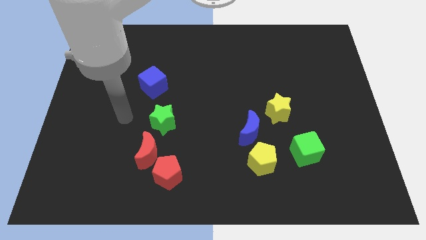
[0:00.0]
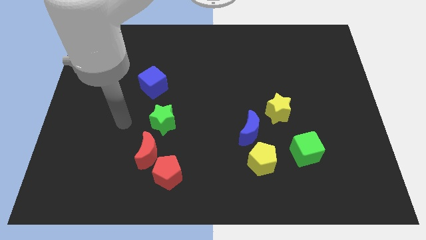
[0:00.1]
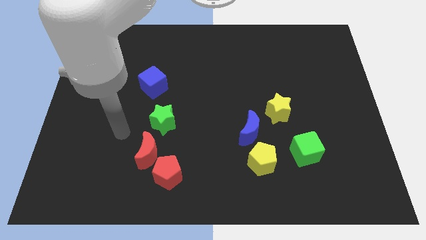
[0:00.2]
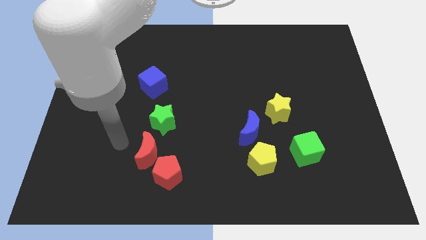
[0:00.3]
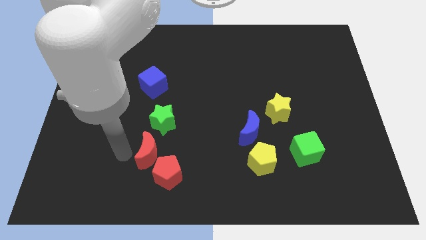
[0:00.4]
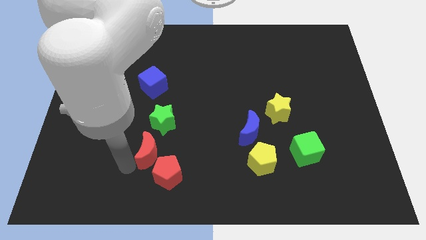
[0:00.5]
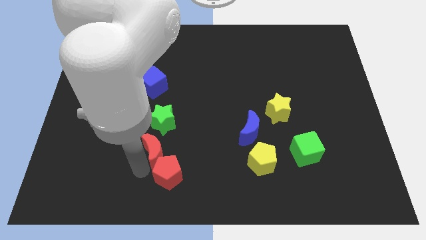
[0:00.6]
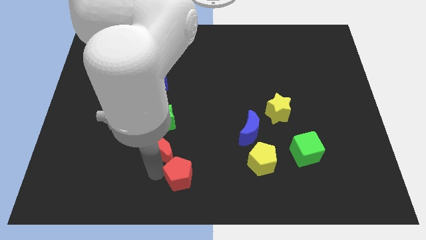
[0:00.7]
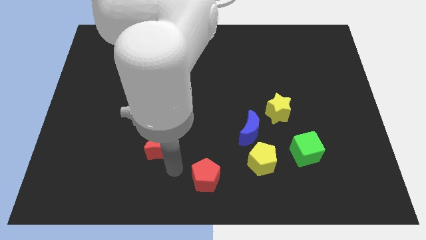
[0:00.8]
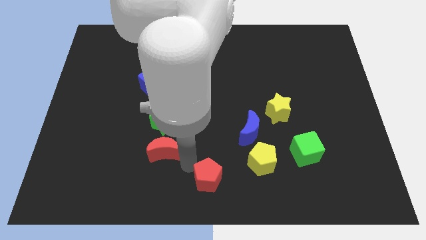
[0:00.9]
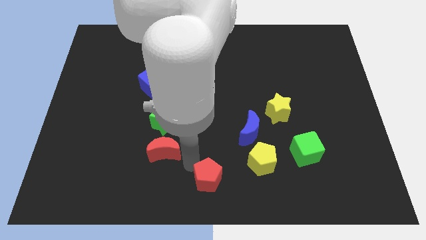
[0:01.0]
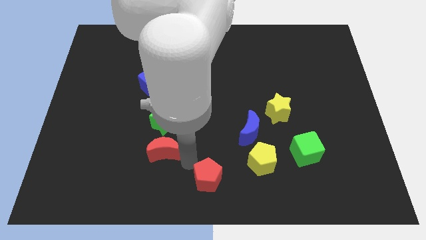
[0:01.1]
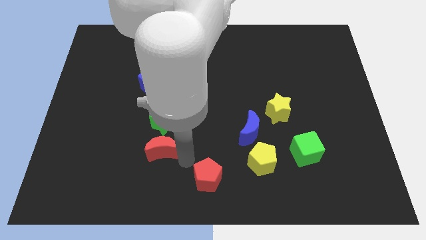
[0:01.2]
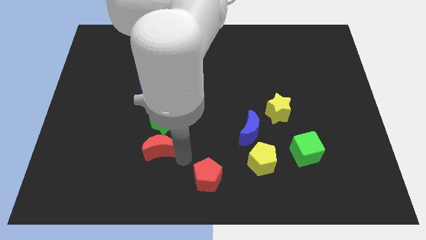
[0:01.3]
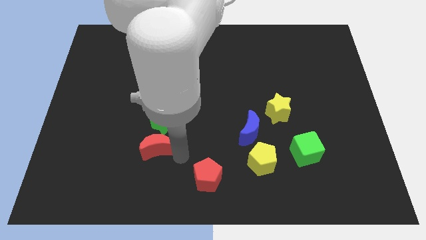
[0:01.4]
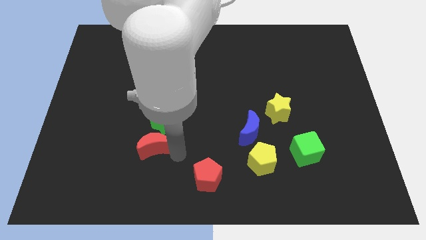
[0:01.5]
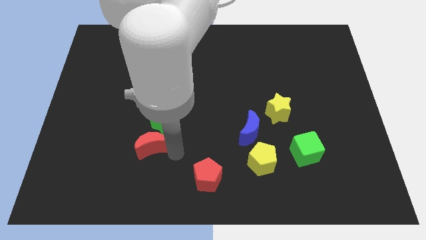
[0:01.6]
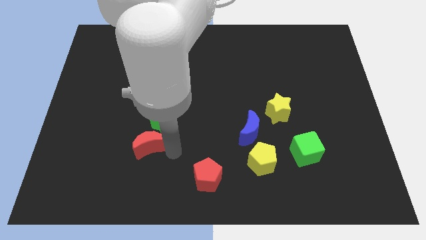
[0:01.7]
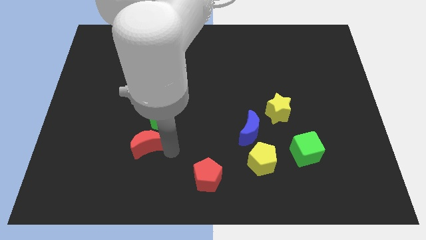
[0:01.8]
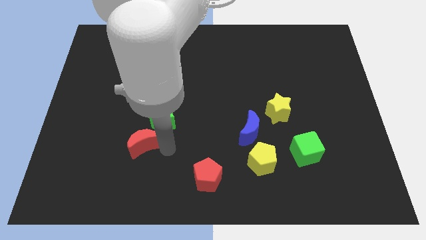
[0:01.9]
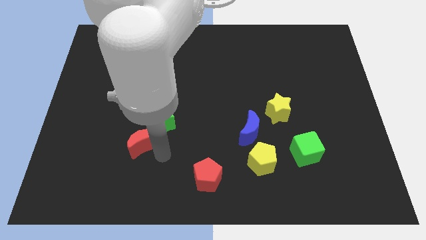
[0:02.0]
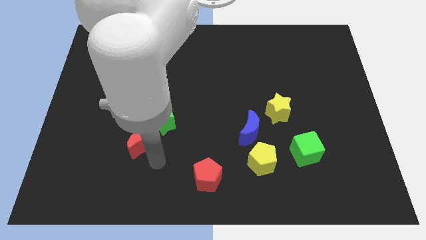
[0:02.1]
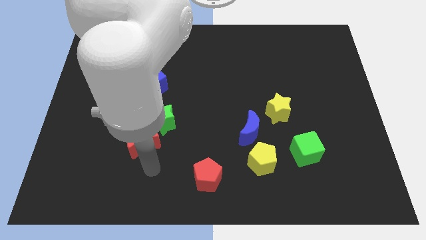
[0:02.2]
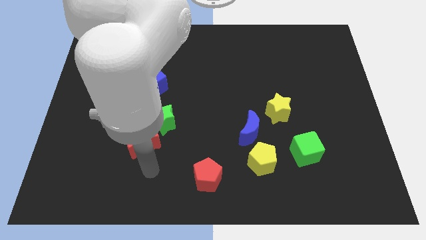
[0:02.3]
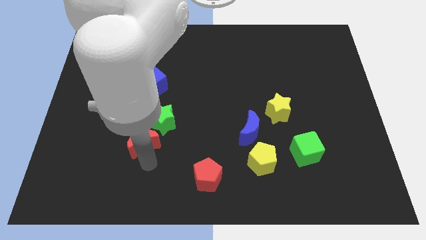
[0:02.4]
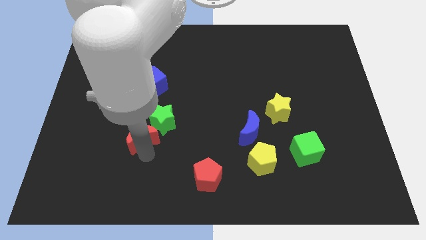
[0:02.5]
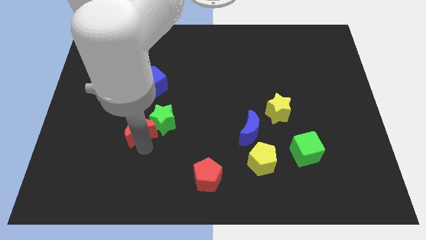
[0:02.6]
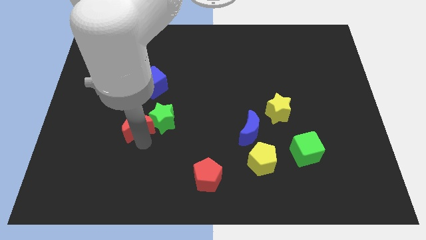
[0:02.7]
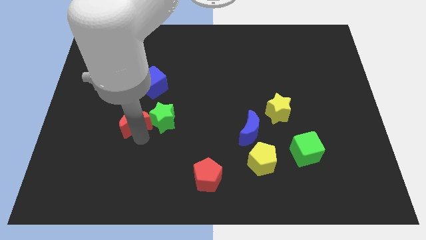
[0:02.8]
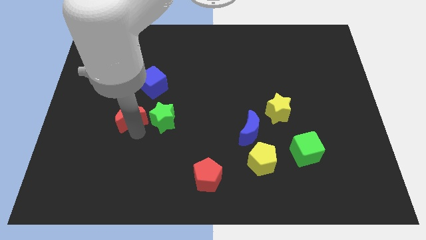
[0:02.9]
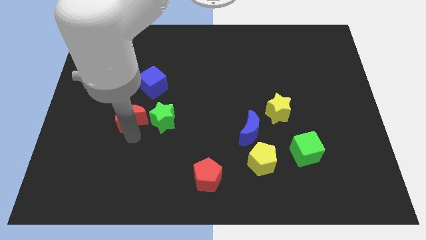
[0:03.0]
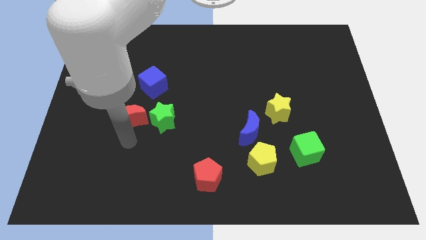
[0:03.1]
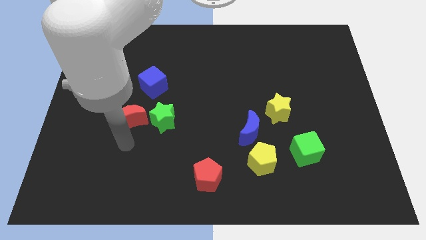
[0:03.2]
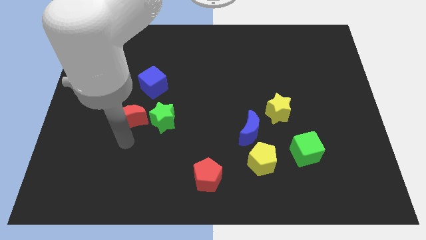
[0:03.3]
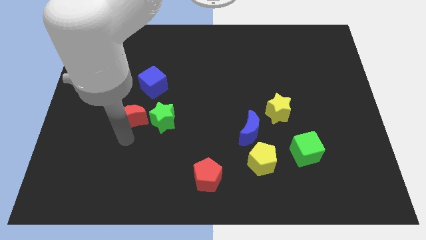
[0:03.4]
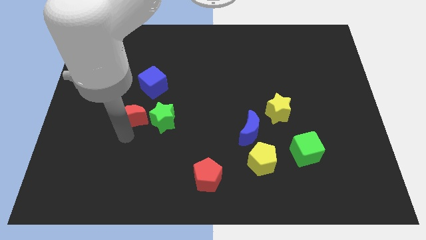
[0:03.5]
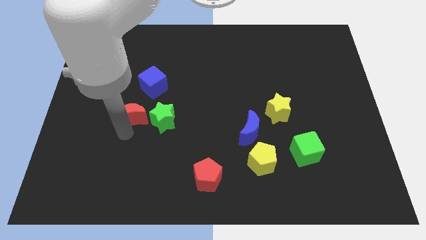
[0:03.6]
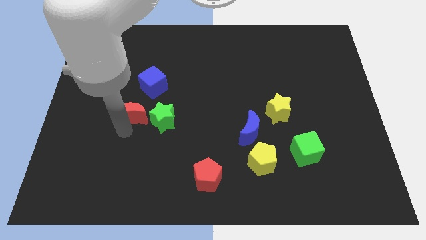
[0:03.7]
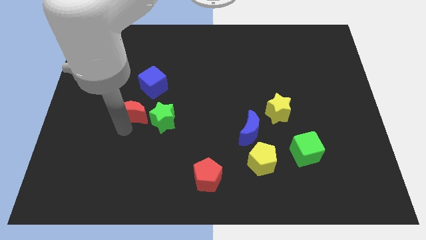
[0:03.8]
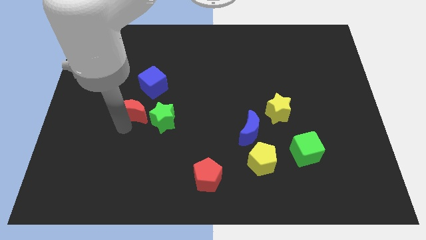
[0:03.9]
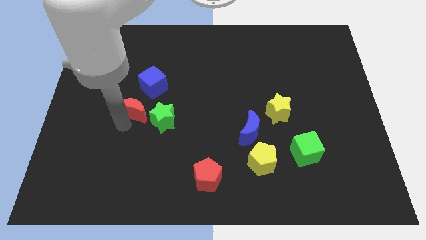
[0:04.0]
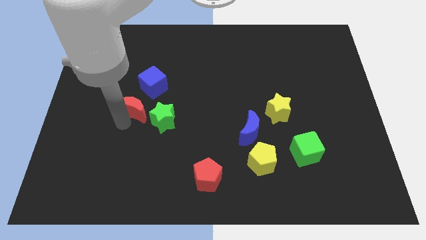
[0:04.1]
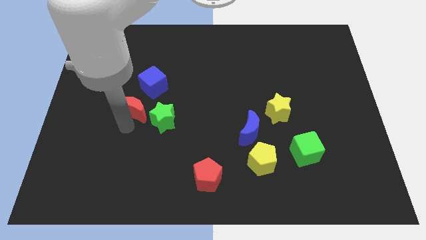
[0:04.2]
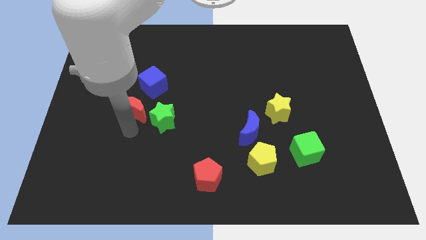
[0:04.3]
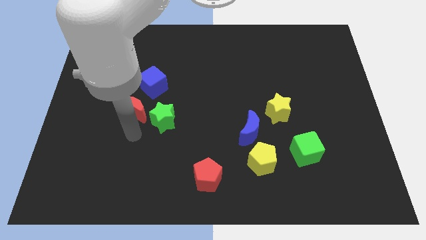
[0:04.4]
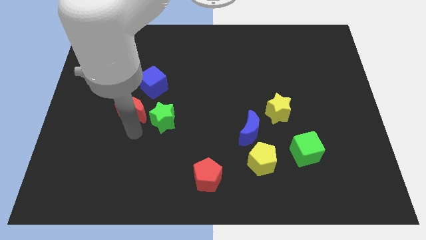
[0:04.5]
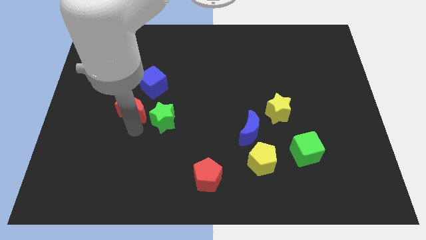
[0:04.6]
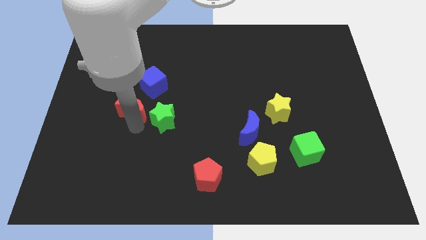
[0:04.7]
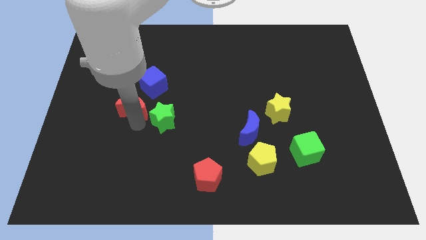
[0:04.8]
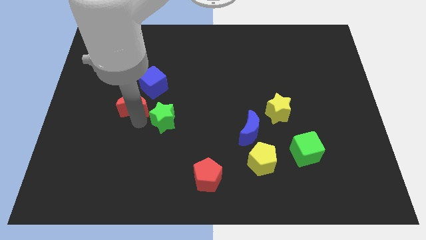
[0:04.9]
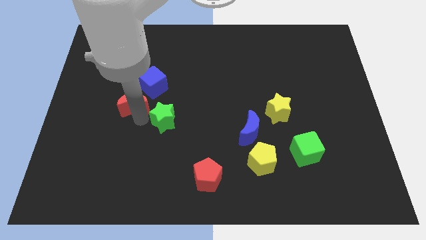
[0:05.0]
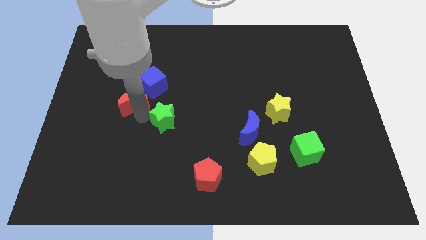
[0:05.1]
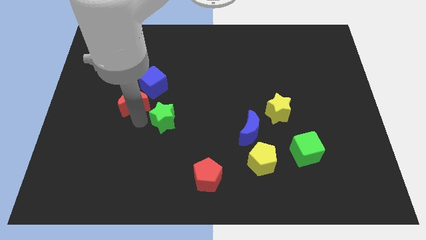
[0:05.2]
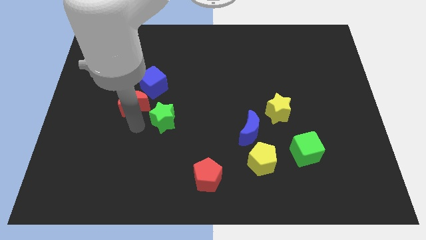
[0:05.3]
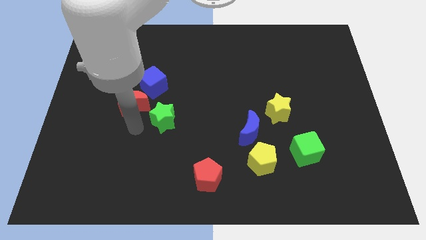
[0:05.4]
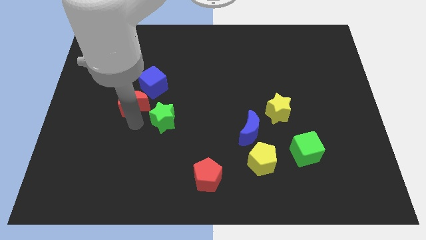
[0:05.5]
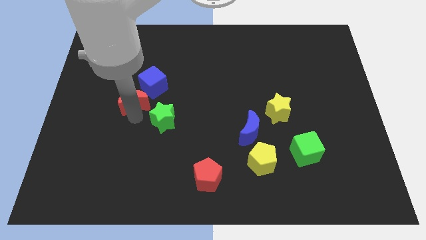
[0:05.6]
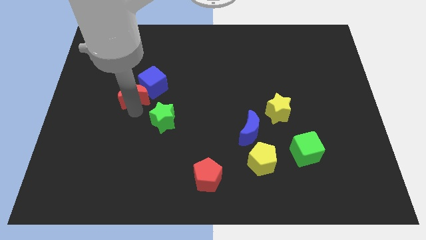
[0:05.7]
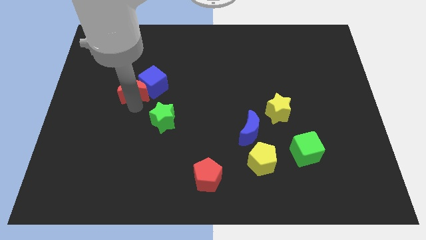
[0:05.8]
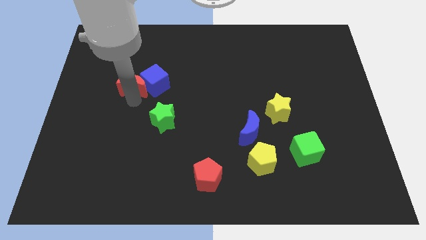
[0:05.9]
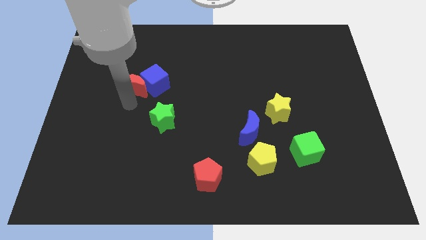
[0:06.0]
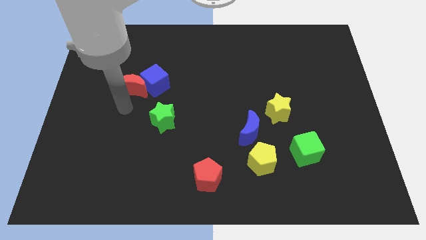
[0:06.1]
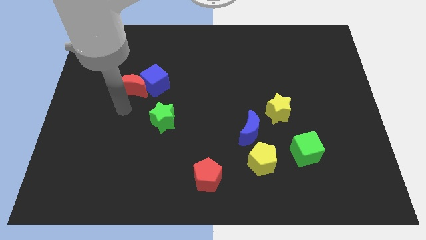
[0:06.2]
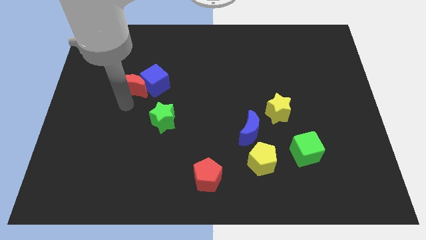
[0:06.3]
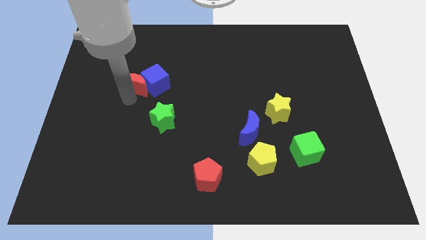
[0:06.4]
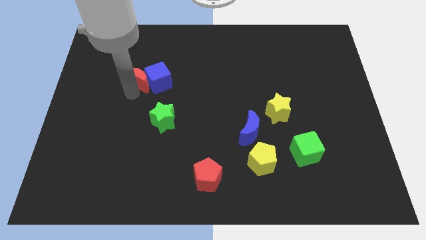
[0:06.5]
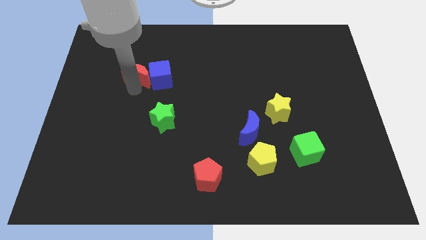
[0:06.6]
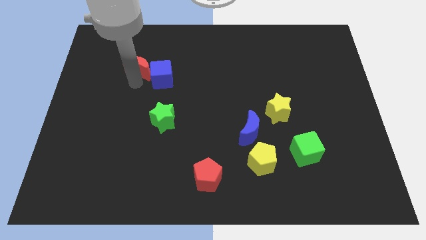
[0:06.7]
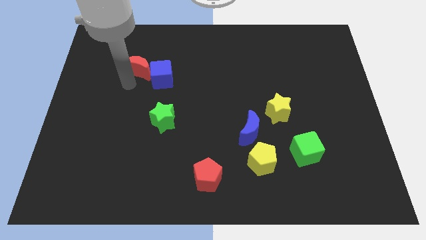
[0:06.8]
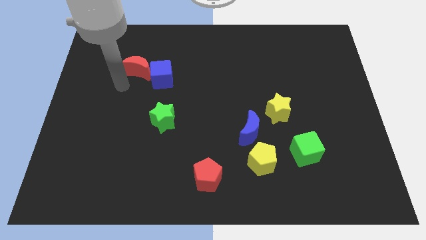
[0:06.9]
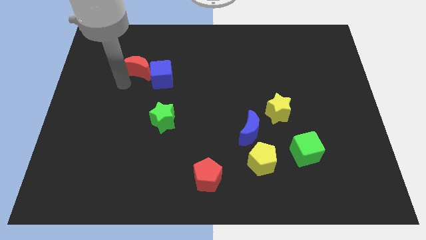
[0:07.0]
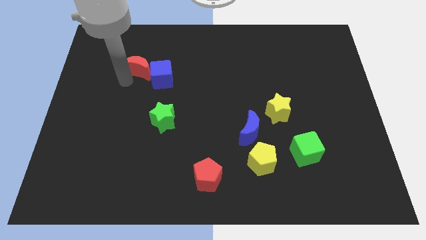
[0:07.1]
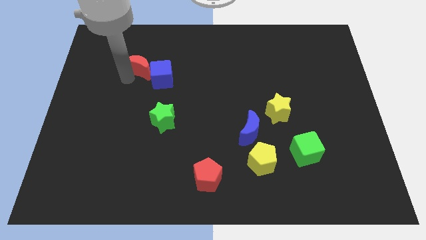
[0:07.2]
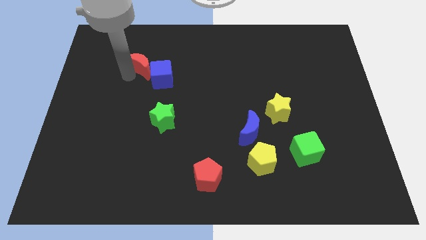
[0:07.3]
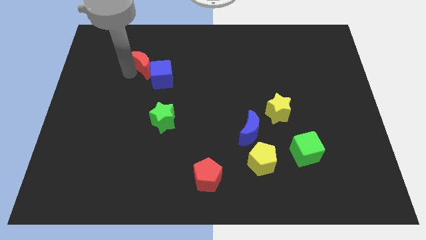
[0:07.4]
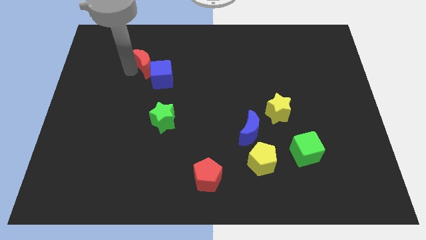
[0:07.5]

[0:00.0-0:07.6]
slide the red moon to the top of the blue cube
